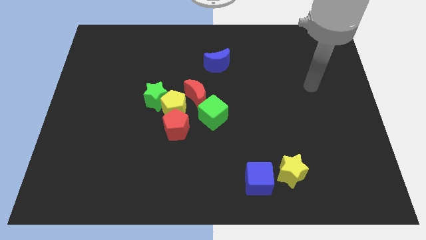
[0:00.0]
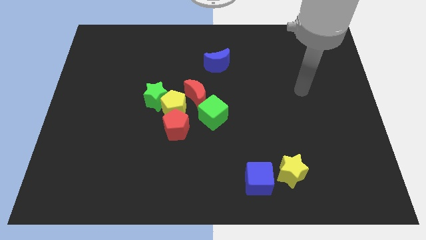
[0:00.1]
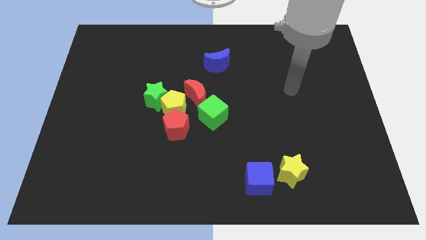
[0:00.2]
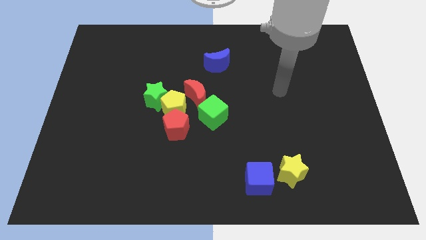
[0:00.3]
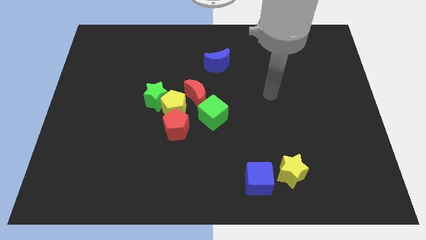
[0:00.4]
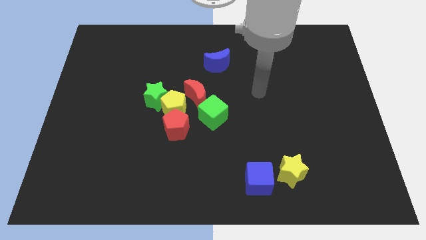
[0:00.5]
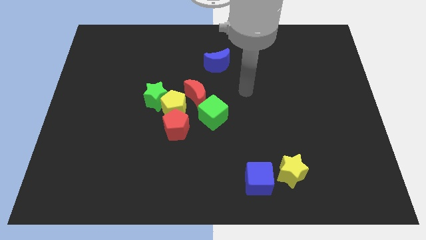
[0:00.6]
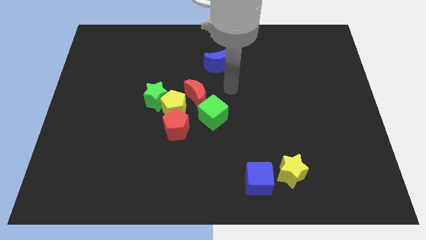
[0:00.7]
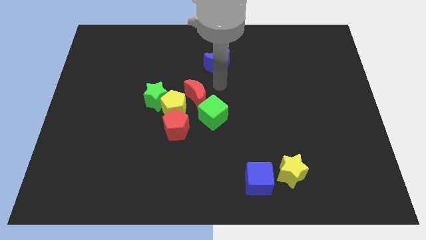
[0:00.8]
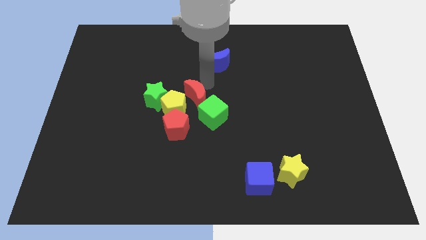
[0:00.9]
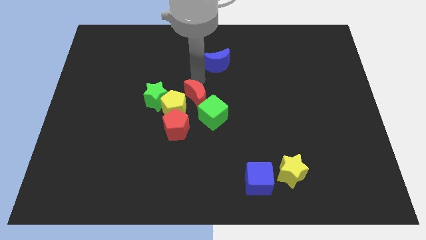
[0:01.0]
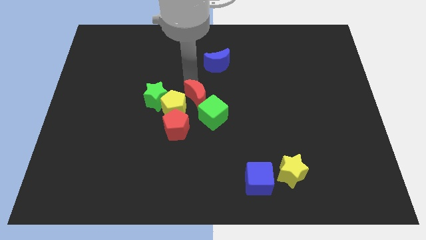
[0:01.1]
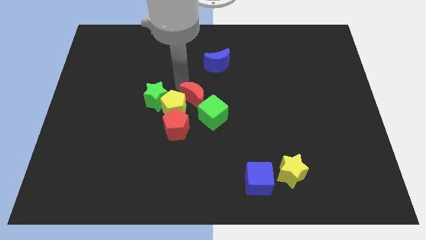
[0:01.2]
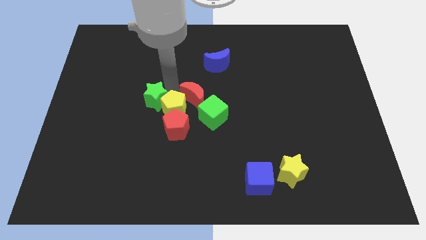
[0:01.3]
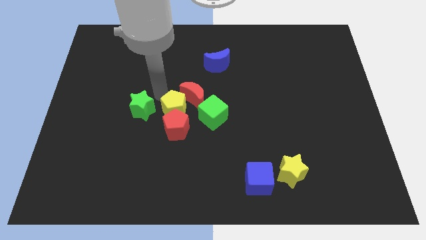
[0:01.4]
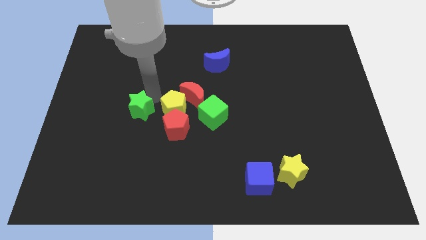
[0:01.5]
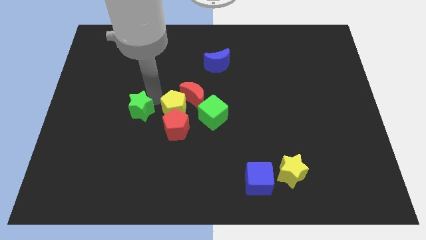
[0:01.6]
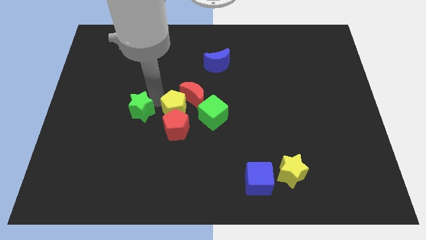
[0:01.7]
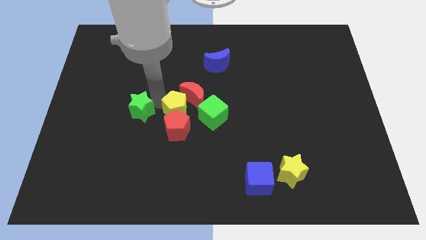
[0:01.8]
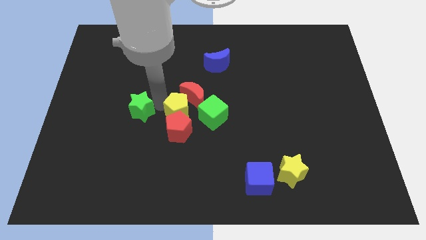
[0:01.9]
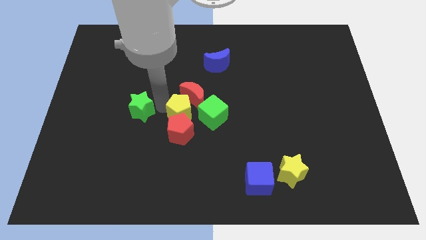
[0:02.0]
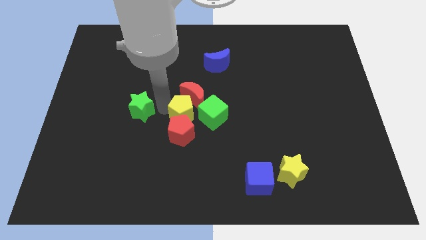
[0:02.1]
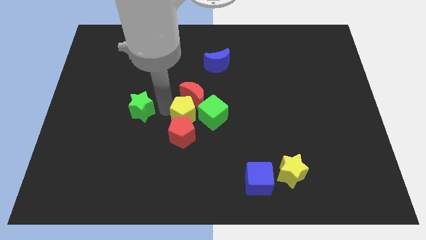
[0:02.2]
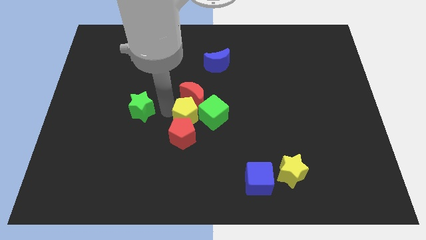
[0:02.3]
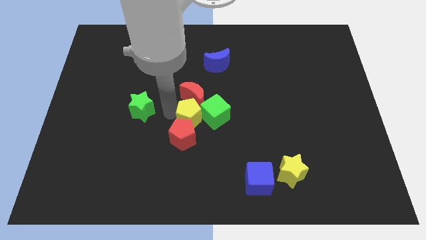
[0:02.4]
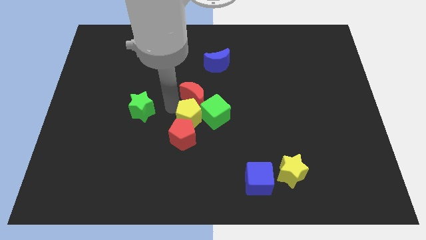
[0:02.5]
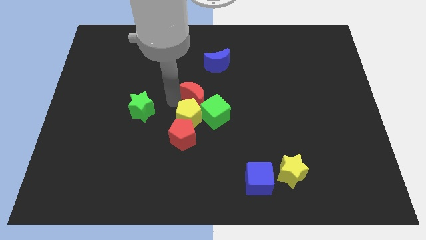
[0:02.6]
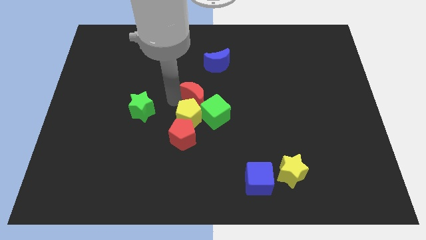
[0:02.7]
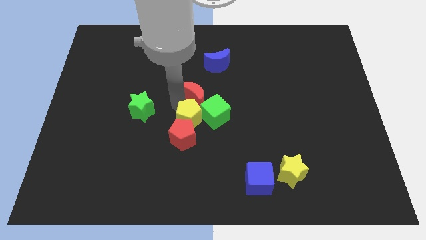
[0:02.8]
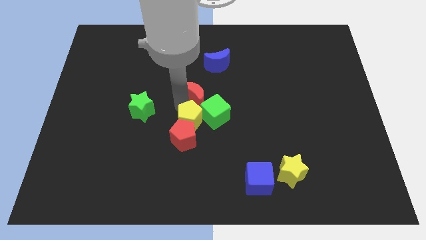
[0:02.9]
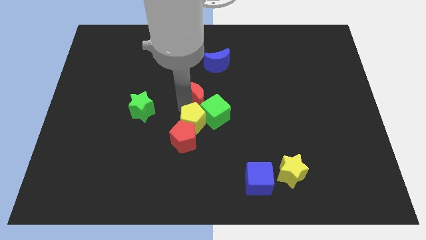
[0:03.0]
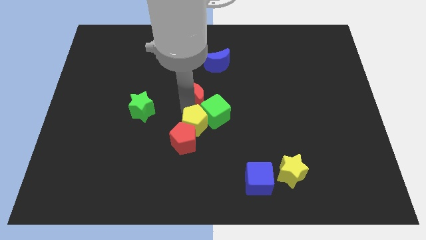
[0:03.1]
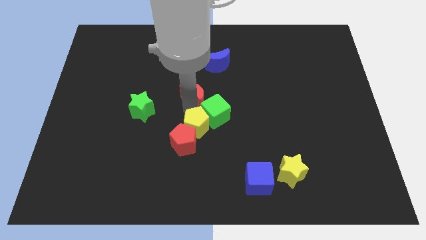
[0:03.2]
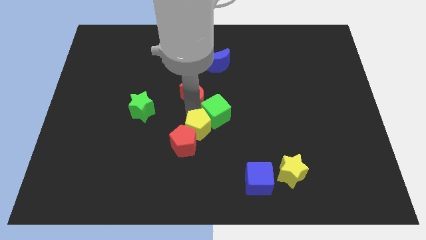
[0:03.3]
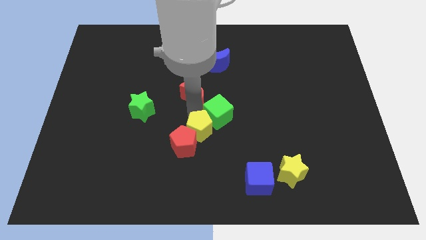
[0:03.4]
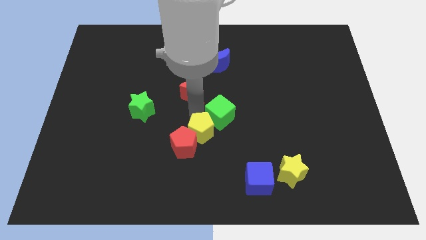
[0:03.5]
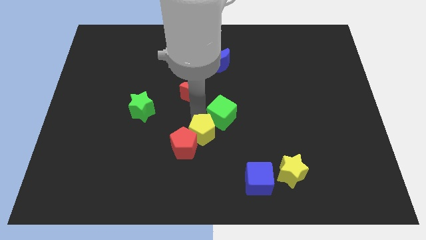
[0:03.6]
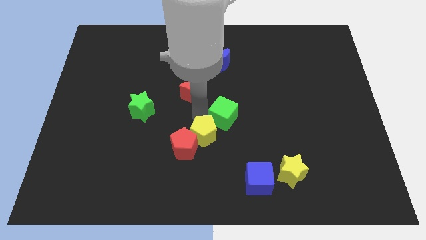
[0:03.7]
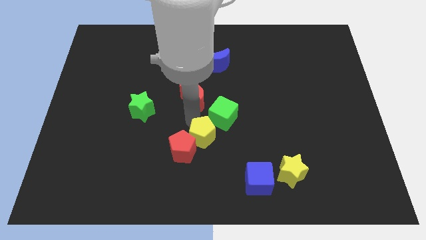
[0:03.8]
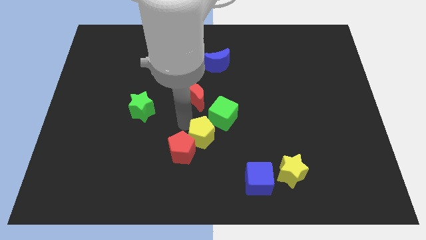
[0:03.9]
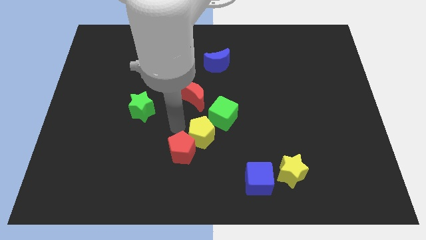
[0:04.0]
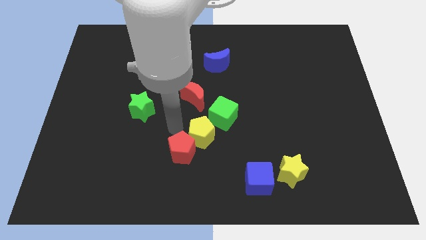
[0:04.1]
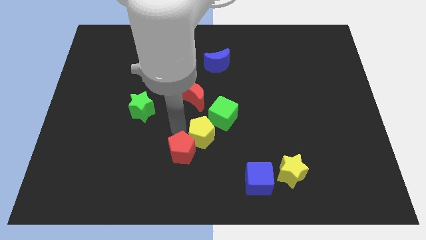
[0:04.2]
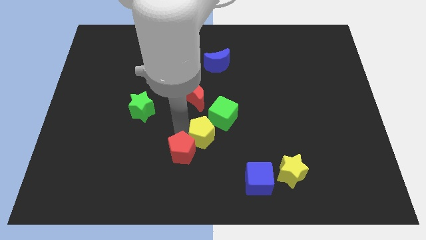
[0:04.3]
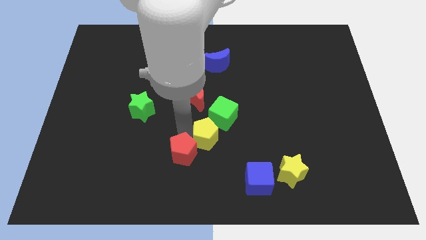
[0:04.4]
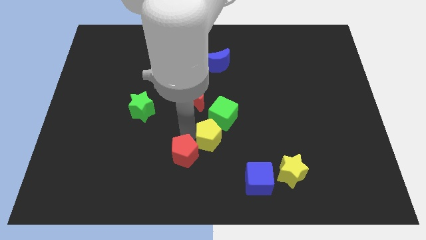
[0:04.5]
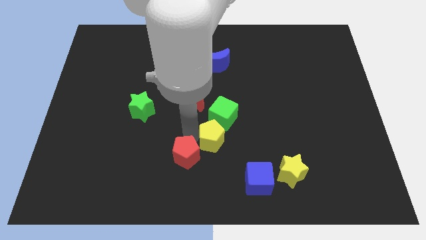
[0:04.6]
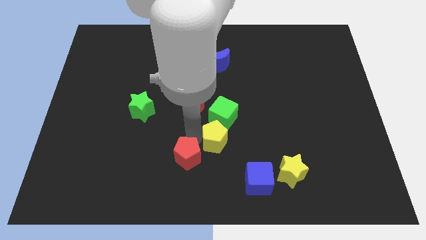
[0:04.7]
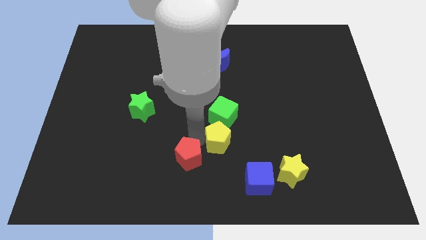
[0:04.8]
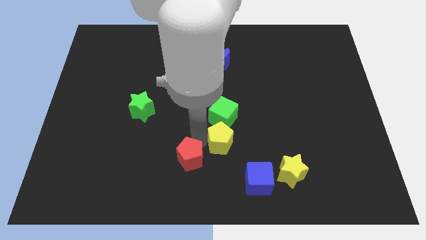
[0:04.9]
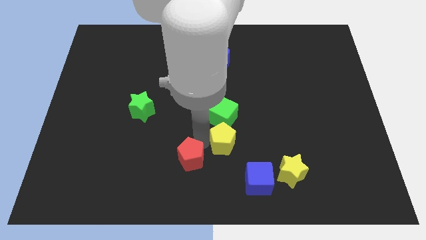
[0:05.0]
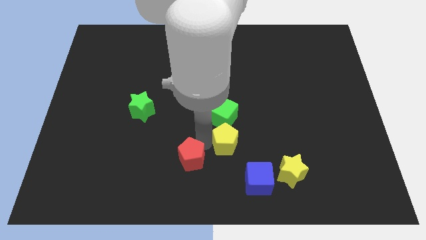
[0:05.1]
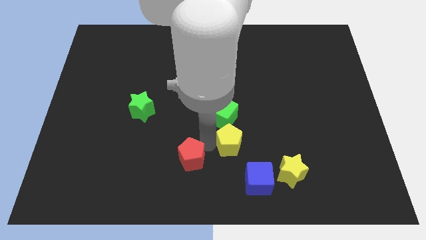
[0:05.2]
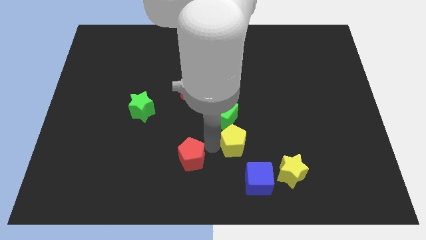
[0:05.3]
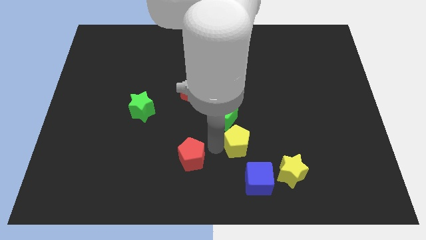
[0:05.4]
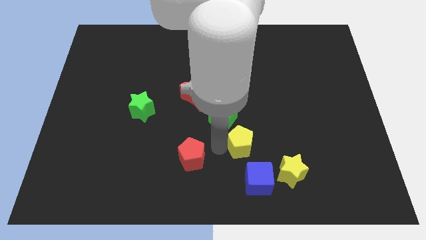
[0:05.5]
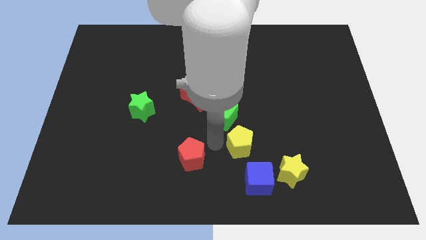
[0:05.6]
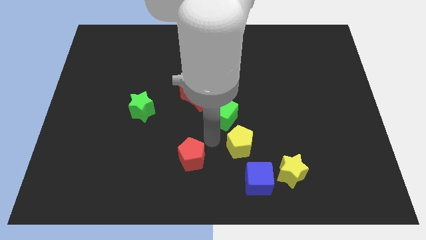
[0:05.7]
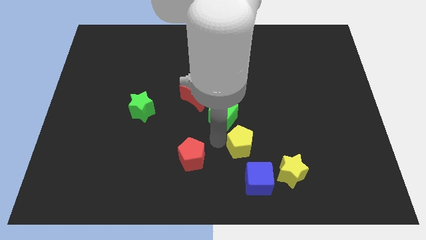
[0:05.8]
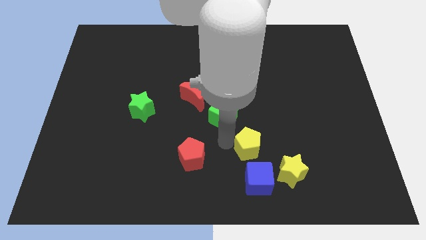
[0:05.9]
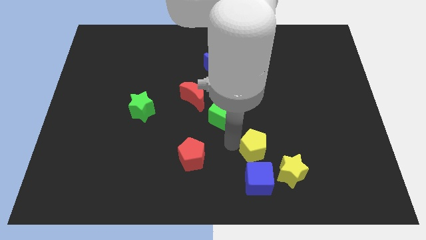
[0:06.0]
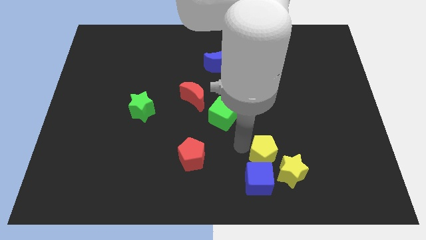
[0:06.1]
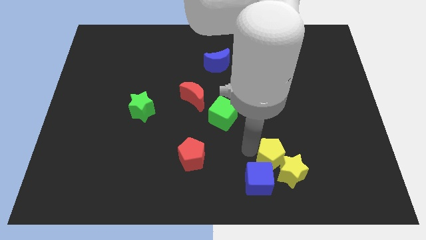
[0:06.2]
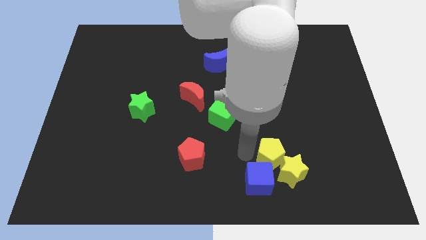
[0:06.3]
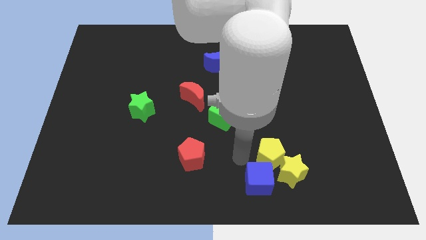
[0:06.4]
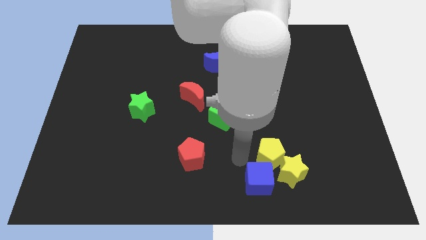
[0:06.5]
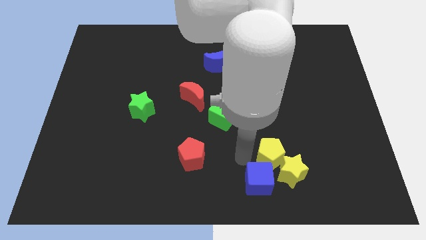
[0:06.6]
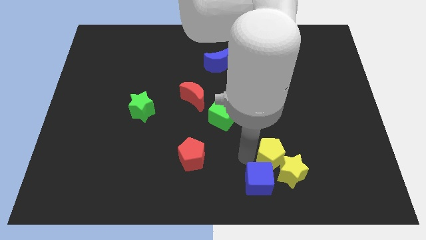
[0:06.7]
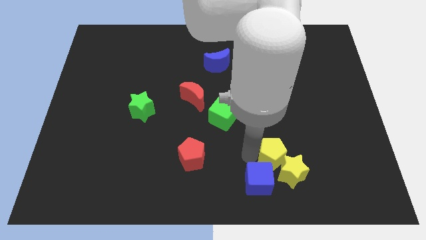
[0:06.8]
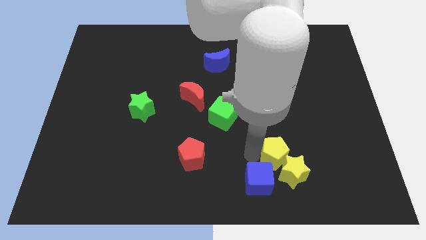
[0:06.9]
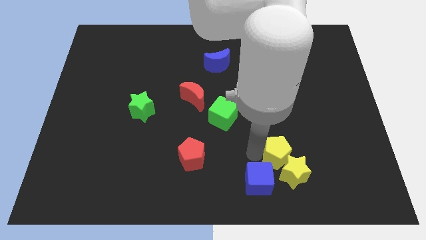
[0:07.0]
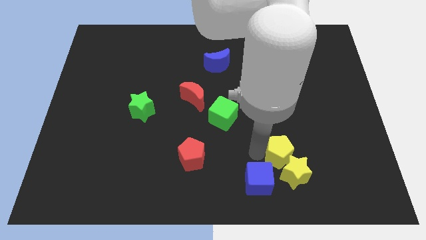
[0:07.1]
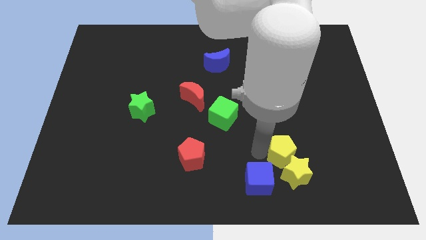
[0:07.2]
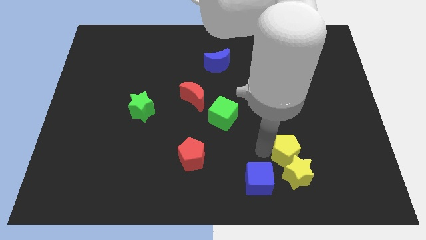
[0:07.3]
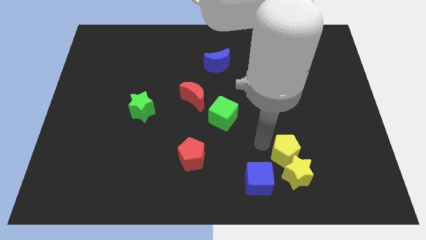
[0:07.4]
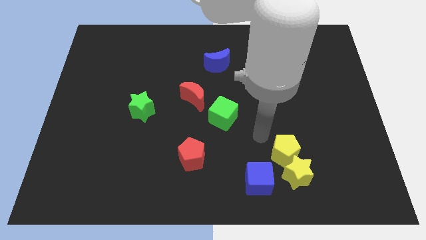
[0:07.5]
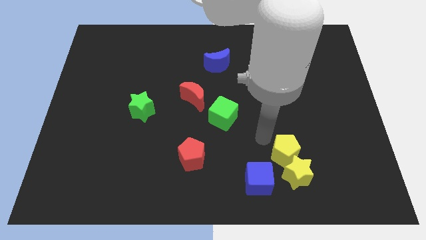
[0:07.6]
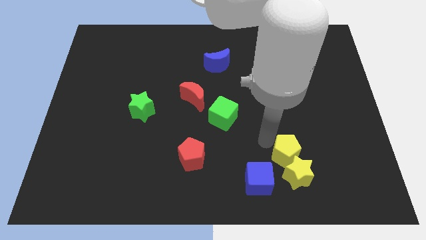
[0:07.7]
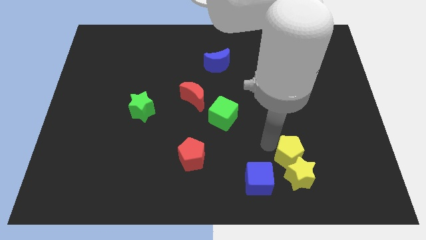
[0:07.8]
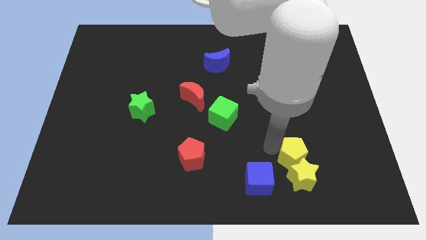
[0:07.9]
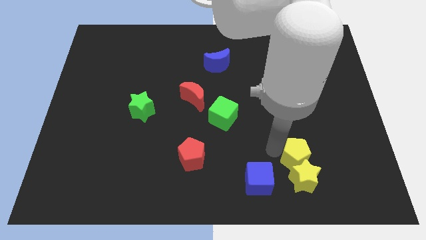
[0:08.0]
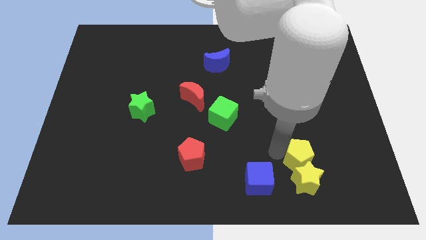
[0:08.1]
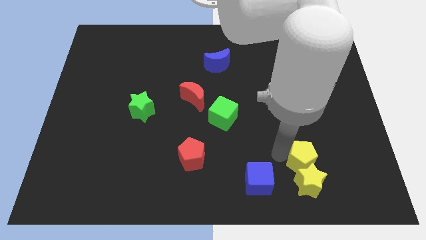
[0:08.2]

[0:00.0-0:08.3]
put the yellow pentagon to the right side of the blue cube
